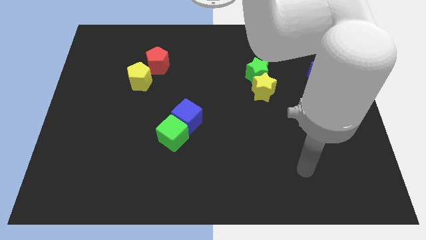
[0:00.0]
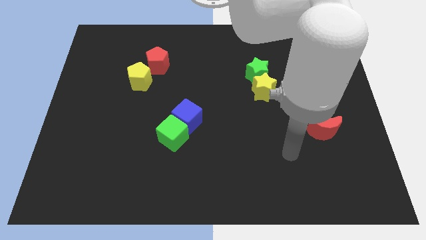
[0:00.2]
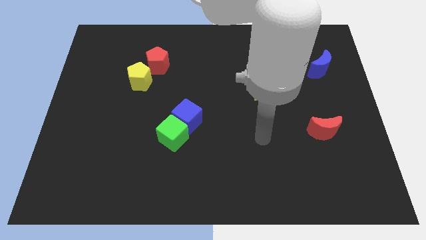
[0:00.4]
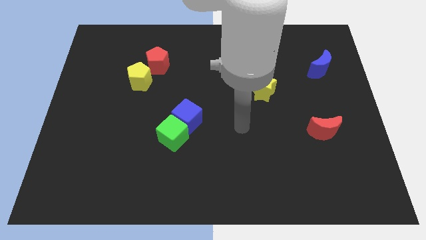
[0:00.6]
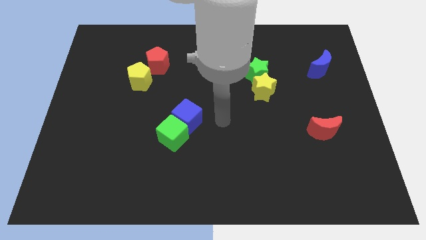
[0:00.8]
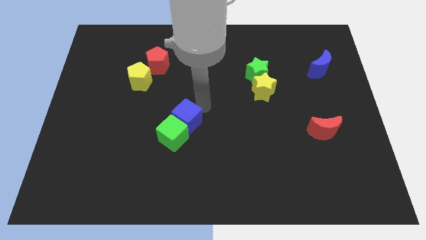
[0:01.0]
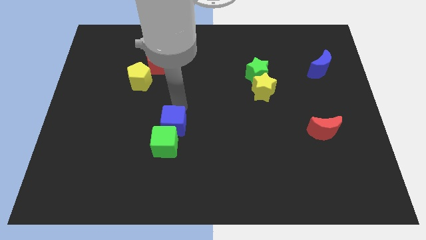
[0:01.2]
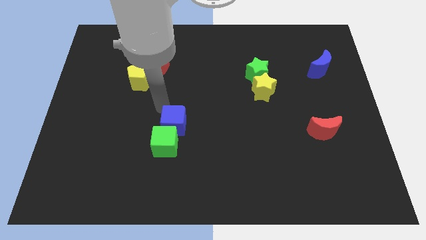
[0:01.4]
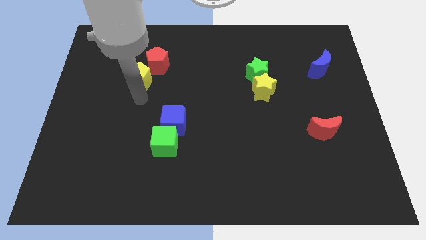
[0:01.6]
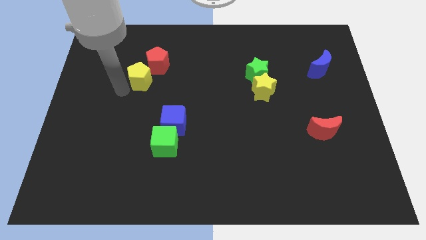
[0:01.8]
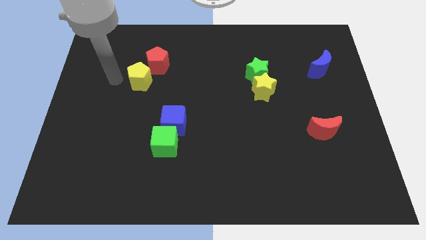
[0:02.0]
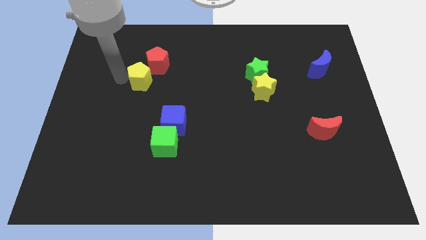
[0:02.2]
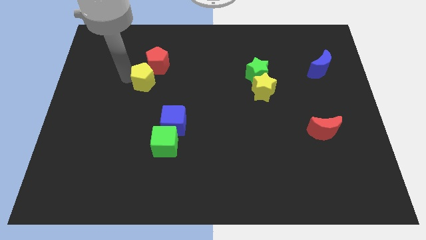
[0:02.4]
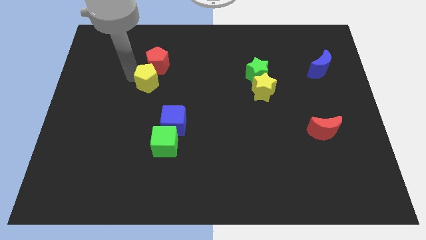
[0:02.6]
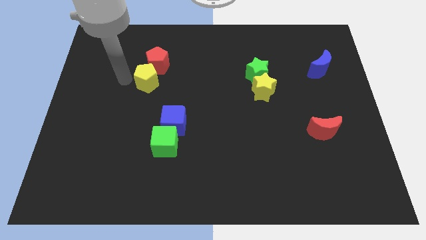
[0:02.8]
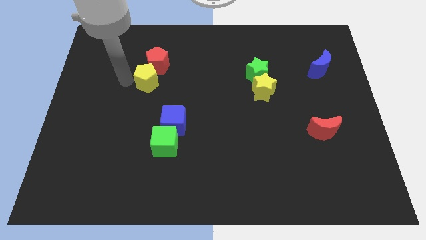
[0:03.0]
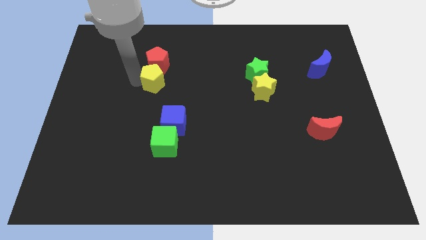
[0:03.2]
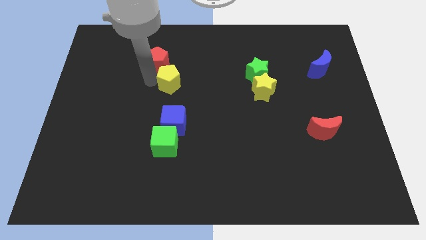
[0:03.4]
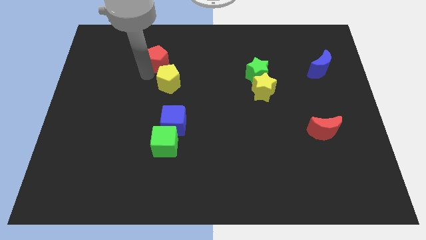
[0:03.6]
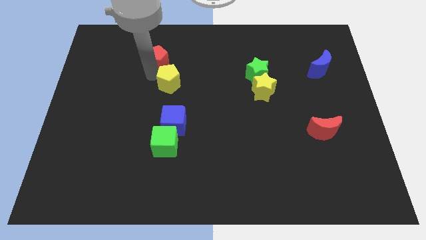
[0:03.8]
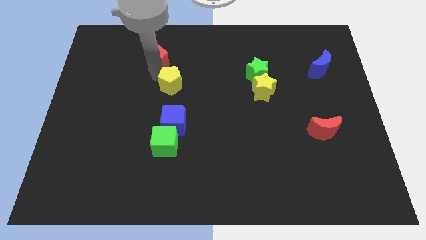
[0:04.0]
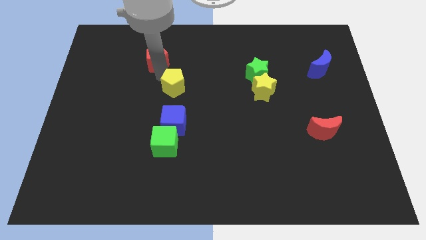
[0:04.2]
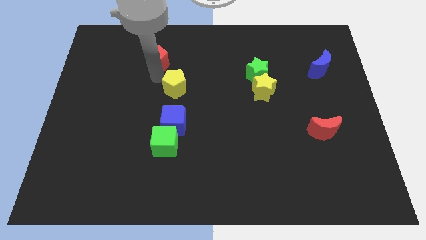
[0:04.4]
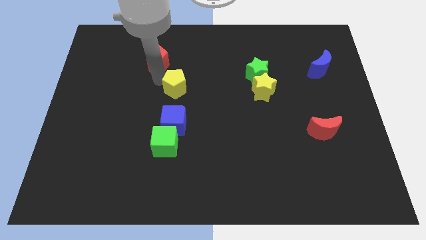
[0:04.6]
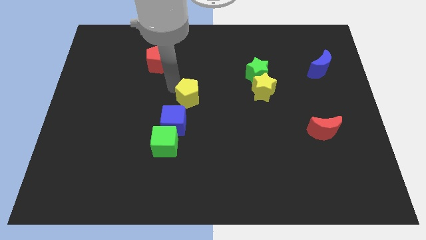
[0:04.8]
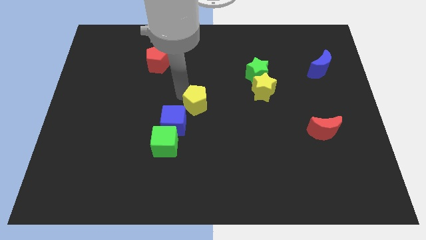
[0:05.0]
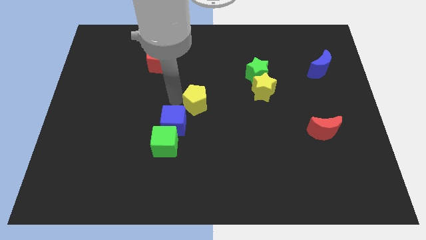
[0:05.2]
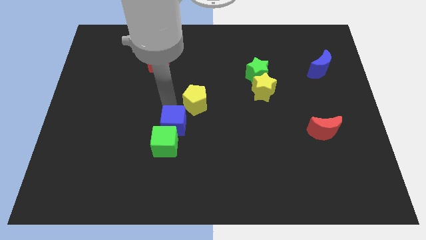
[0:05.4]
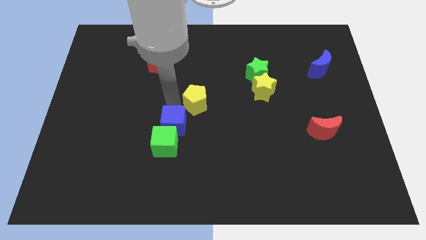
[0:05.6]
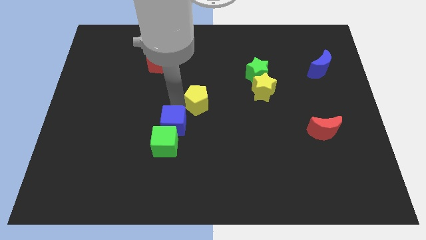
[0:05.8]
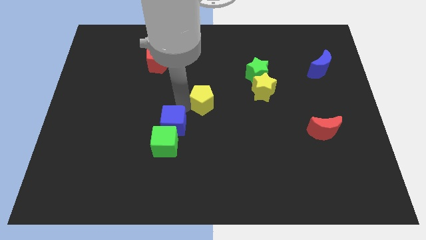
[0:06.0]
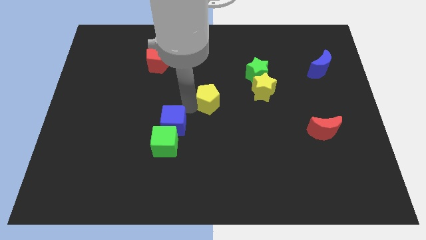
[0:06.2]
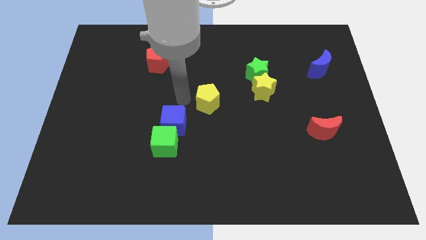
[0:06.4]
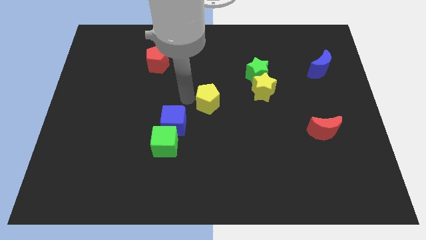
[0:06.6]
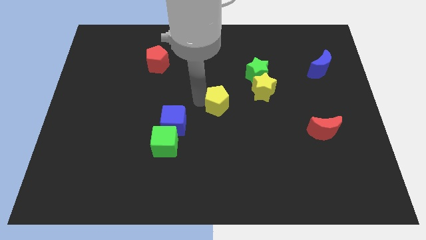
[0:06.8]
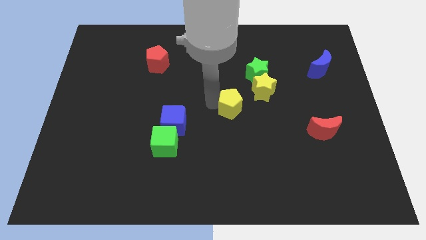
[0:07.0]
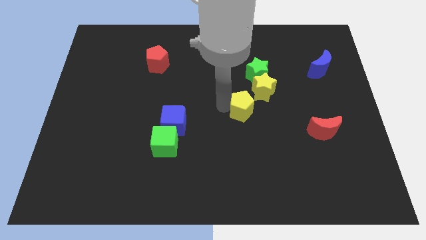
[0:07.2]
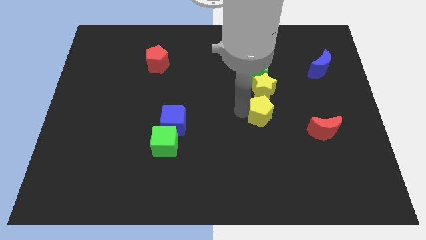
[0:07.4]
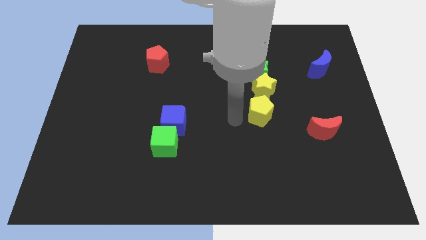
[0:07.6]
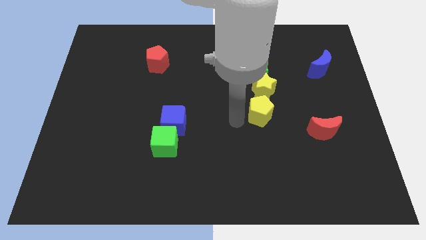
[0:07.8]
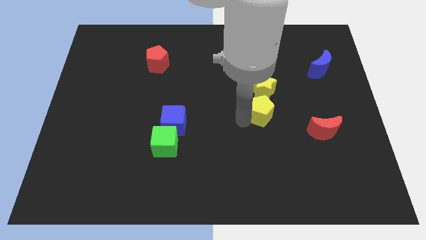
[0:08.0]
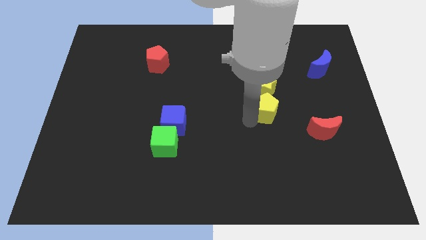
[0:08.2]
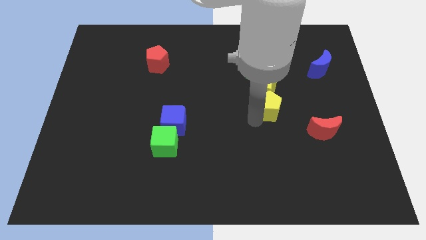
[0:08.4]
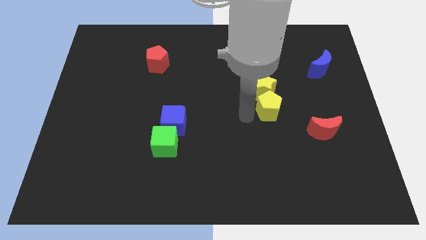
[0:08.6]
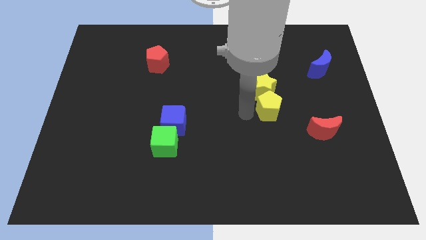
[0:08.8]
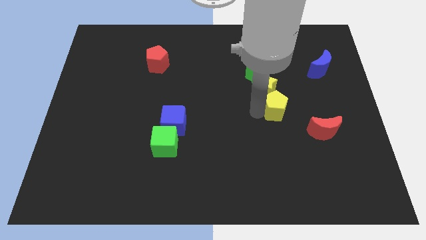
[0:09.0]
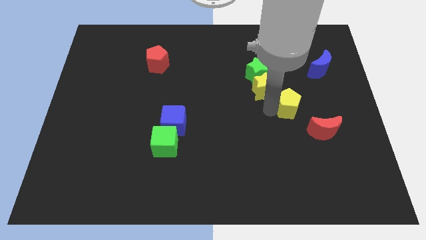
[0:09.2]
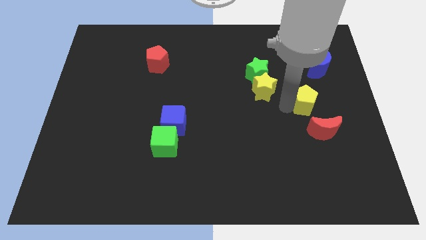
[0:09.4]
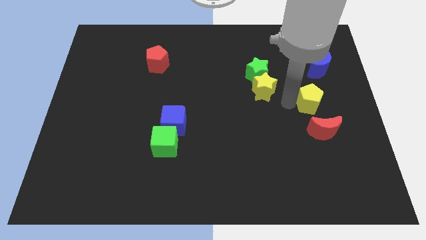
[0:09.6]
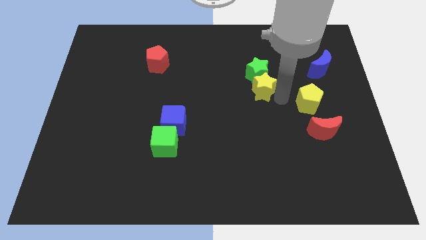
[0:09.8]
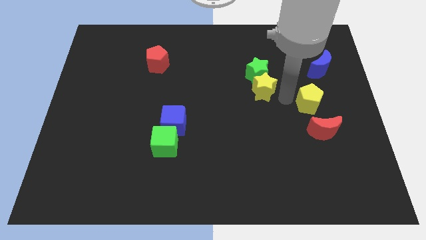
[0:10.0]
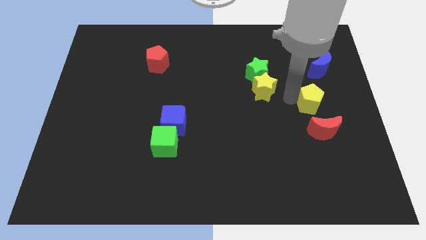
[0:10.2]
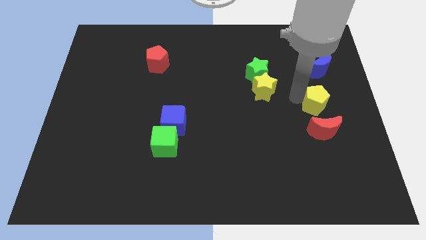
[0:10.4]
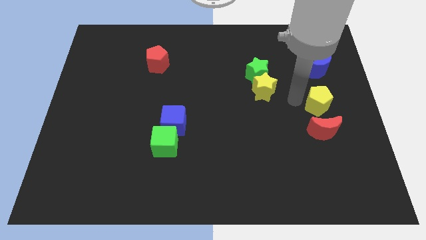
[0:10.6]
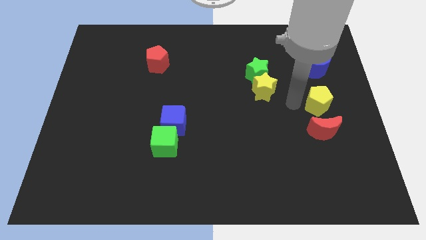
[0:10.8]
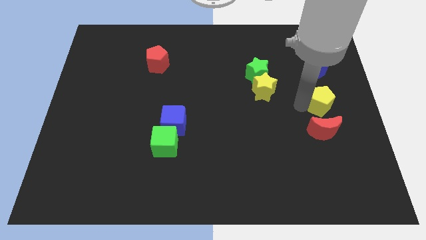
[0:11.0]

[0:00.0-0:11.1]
move the yellow pentagon to the right side

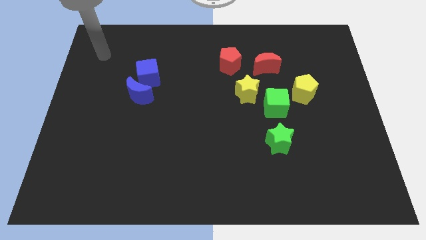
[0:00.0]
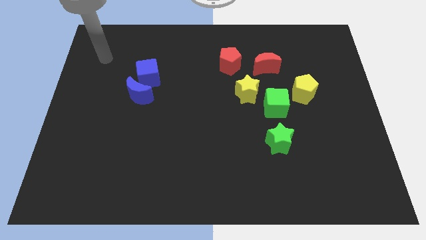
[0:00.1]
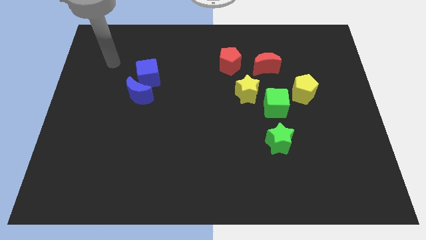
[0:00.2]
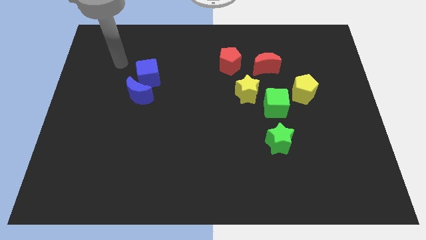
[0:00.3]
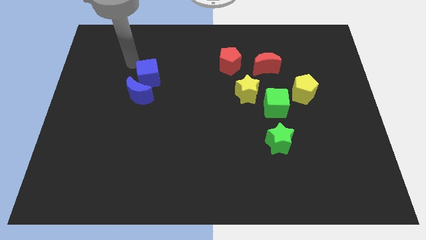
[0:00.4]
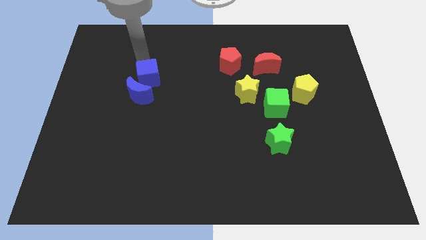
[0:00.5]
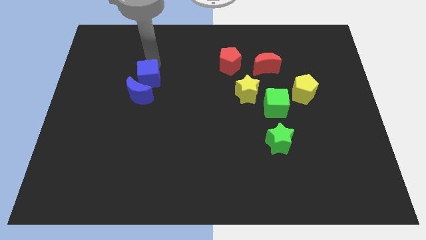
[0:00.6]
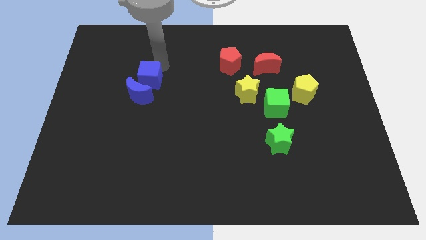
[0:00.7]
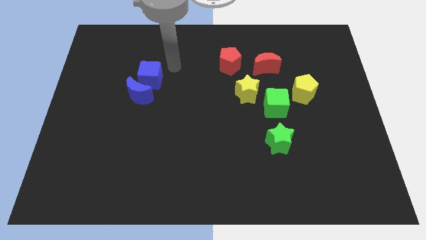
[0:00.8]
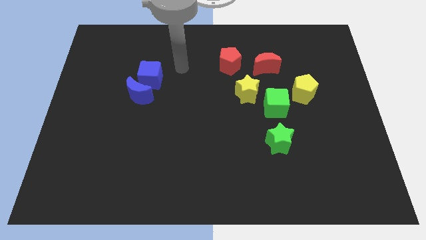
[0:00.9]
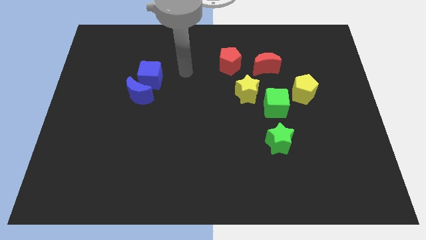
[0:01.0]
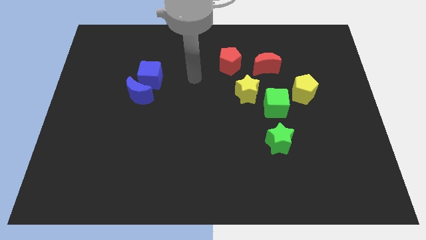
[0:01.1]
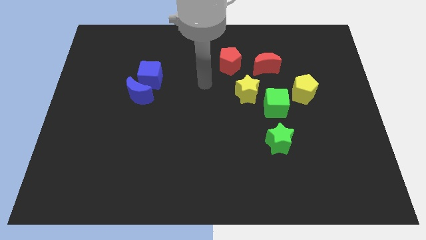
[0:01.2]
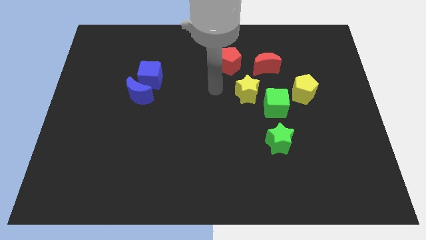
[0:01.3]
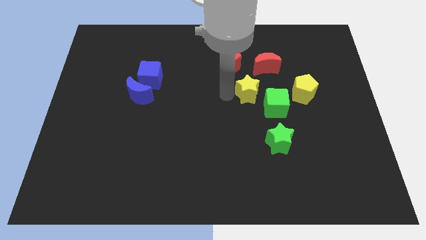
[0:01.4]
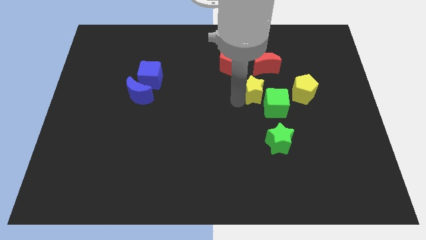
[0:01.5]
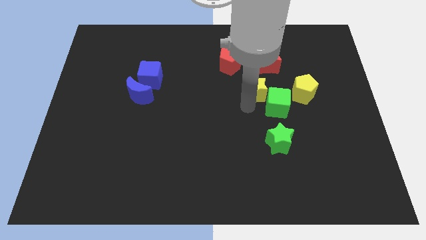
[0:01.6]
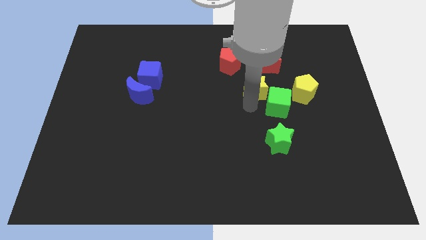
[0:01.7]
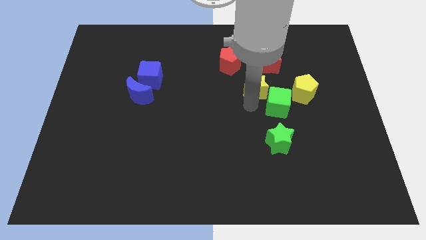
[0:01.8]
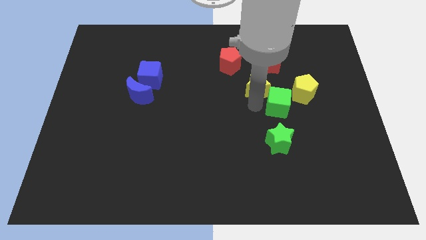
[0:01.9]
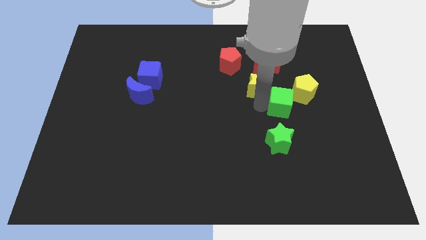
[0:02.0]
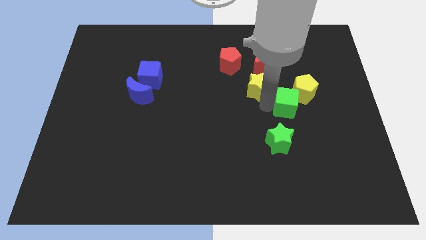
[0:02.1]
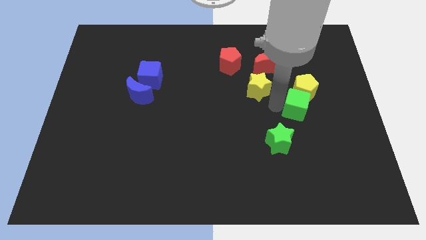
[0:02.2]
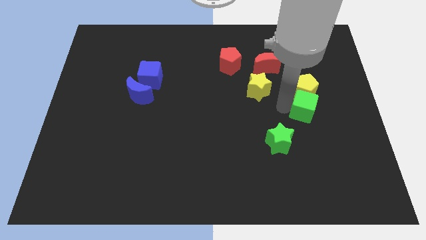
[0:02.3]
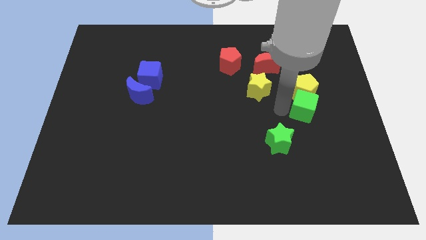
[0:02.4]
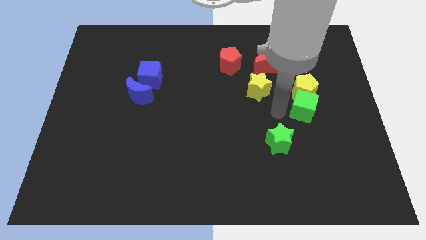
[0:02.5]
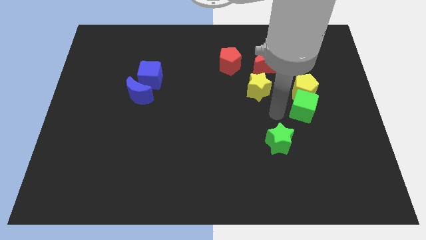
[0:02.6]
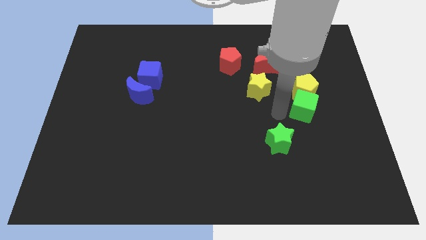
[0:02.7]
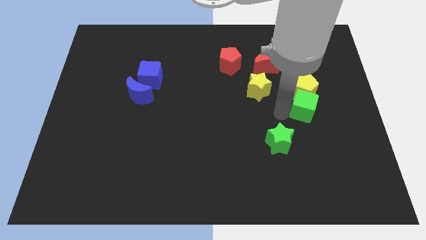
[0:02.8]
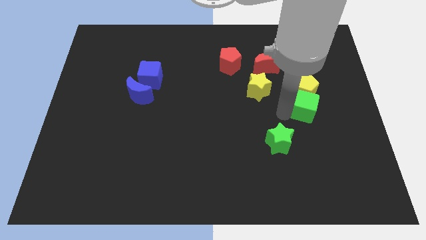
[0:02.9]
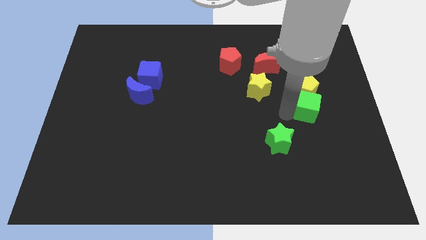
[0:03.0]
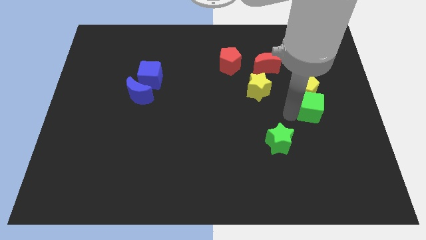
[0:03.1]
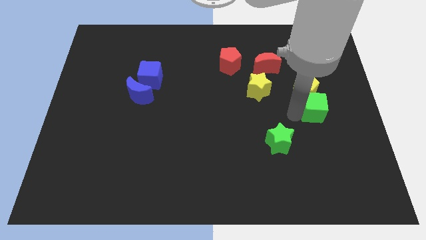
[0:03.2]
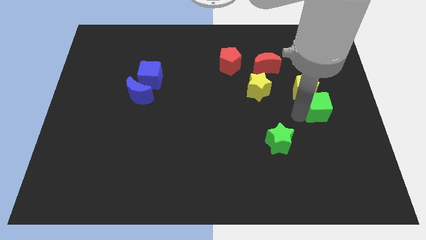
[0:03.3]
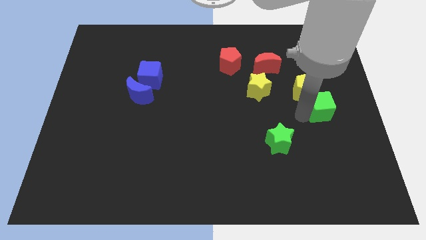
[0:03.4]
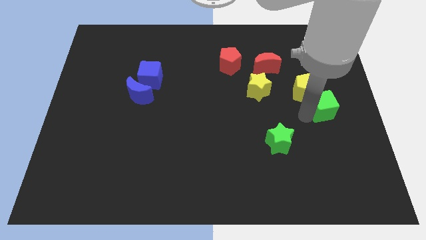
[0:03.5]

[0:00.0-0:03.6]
slide the green cube to the right side
